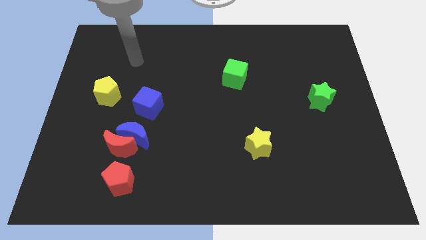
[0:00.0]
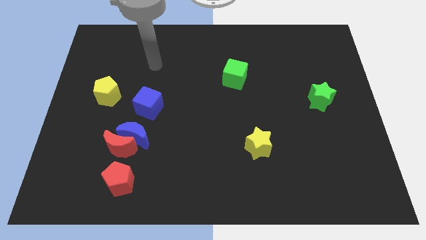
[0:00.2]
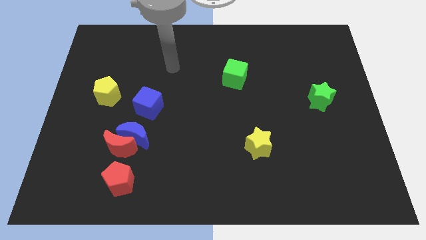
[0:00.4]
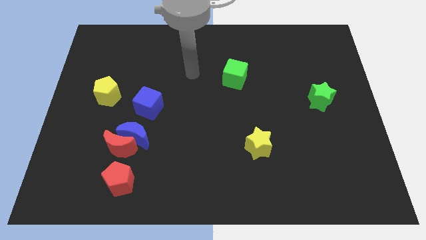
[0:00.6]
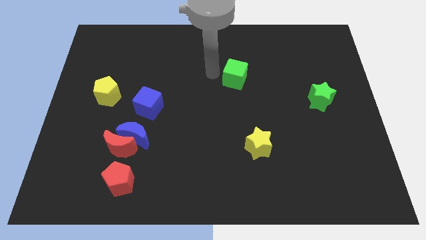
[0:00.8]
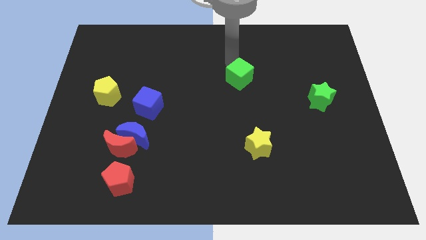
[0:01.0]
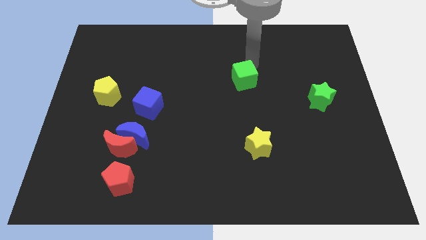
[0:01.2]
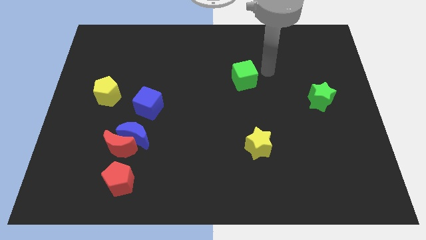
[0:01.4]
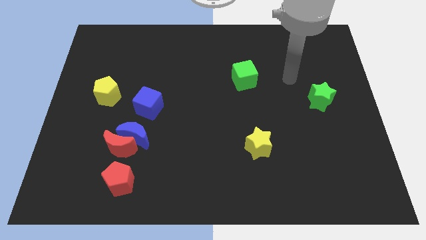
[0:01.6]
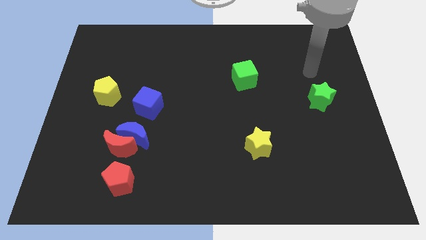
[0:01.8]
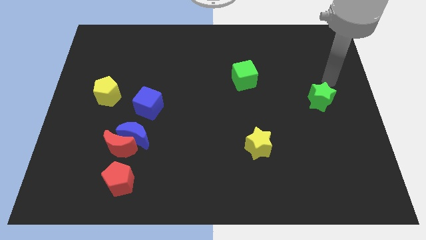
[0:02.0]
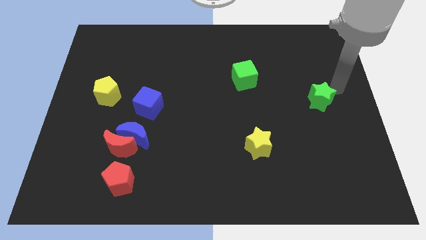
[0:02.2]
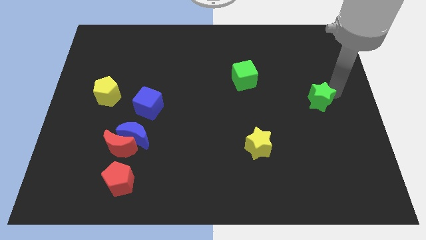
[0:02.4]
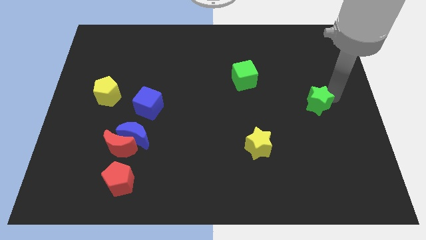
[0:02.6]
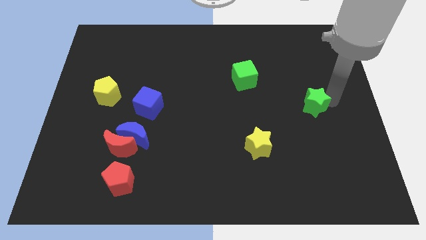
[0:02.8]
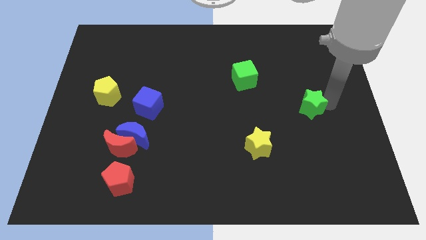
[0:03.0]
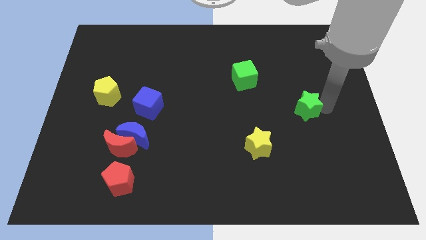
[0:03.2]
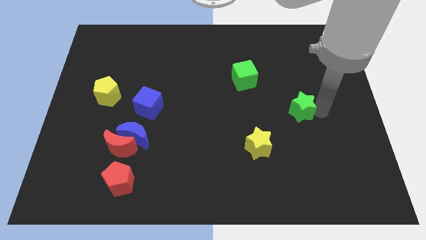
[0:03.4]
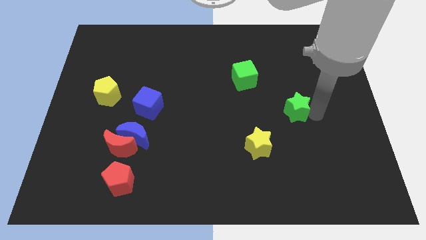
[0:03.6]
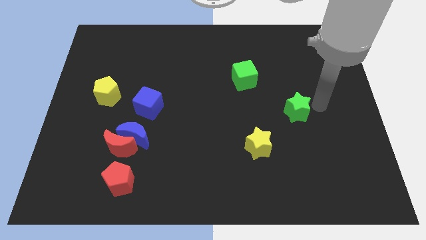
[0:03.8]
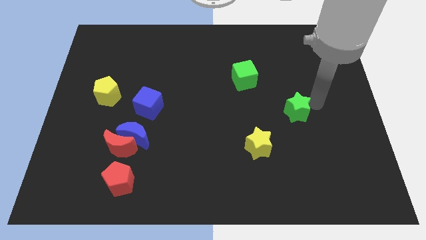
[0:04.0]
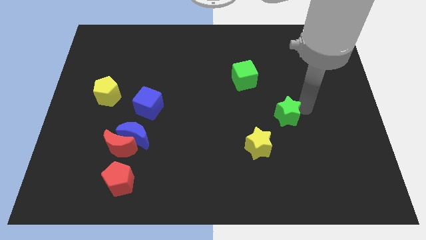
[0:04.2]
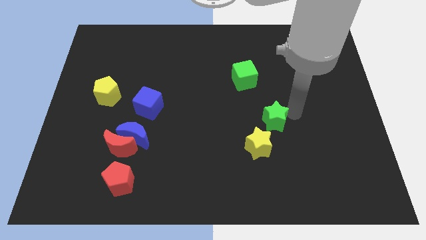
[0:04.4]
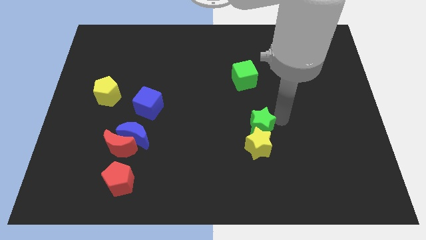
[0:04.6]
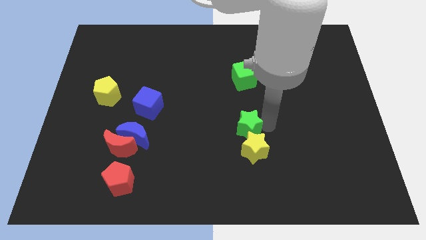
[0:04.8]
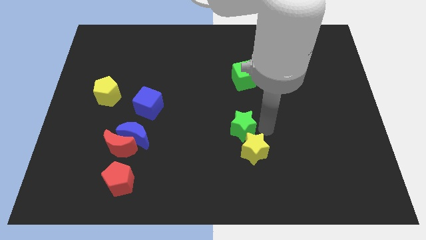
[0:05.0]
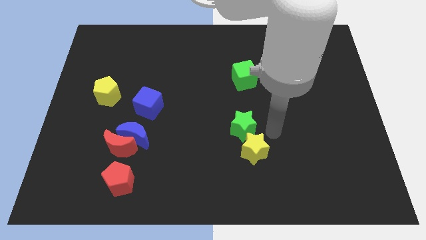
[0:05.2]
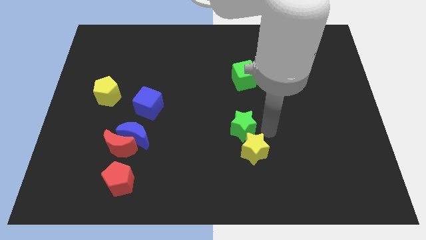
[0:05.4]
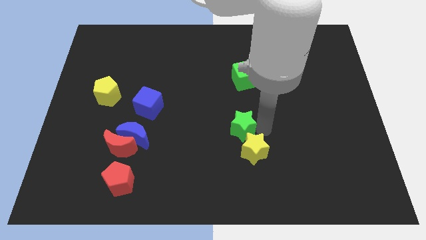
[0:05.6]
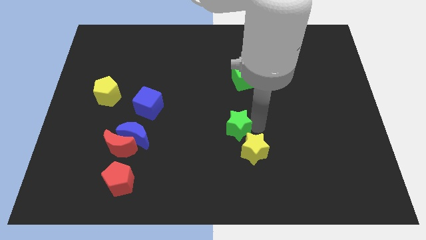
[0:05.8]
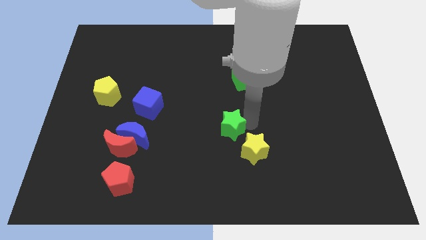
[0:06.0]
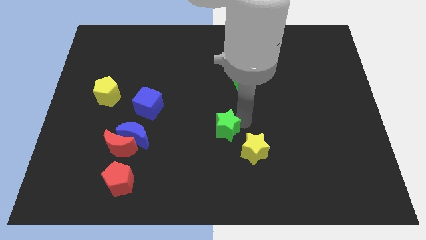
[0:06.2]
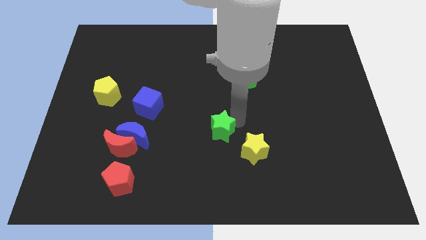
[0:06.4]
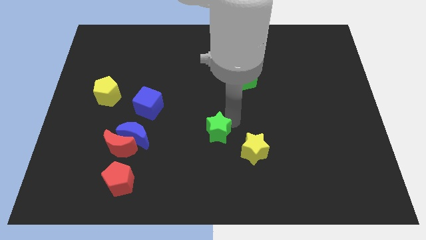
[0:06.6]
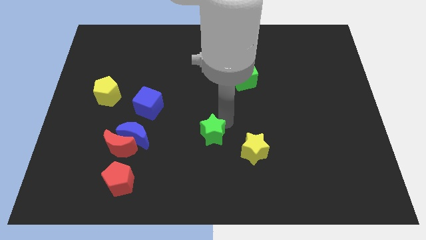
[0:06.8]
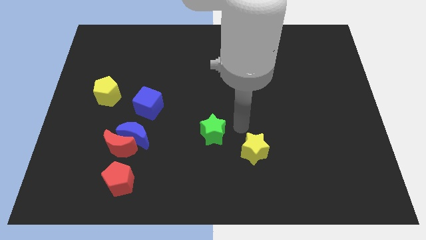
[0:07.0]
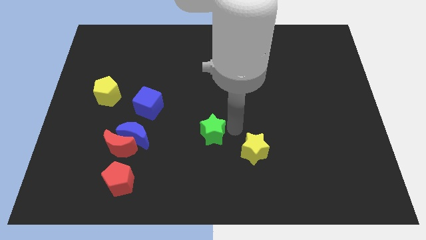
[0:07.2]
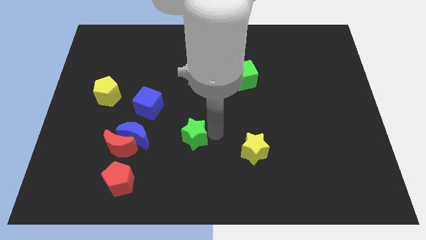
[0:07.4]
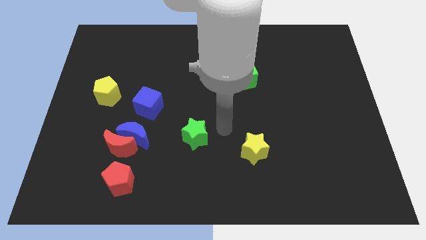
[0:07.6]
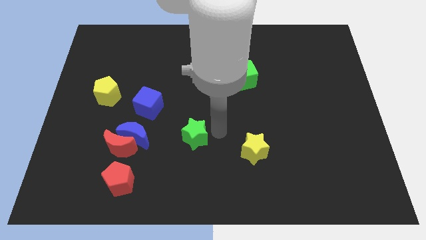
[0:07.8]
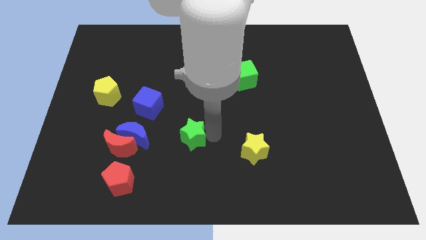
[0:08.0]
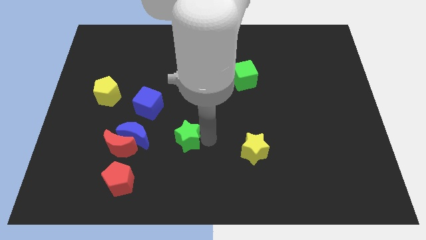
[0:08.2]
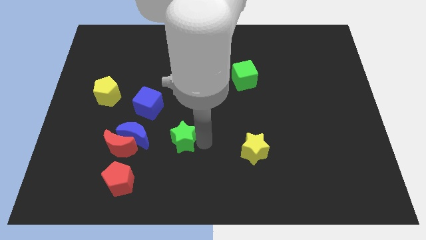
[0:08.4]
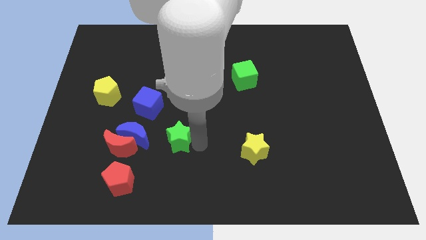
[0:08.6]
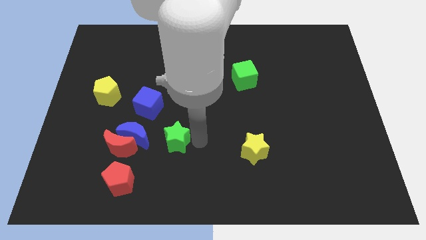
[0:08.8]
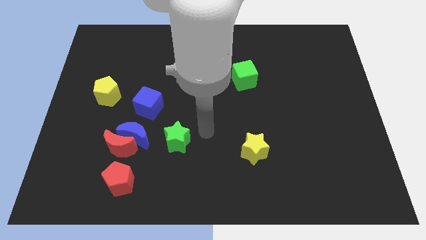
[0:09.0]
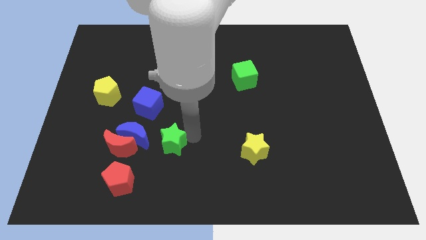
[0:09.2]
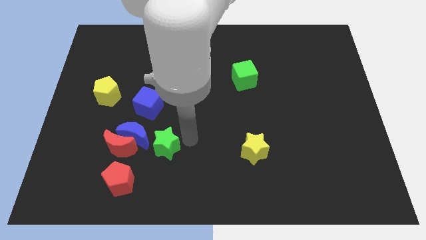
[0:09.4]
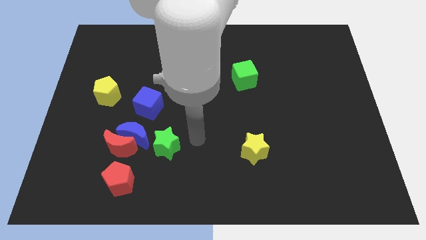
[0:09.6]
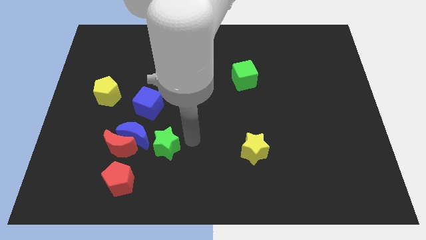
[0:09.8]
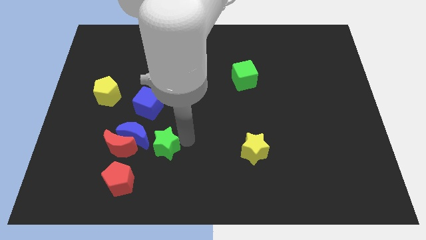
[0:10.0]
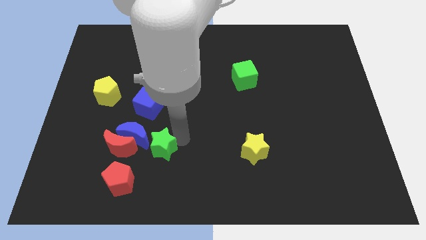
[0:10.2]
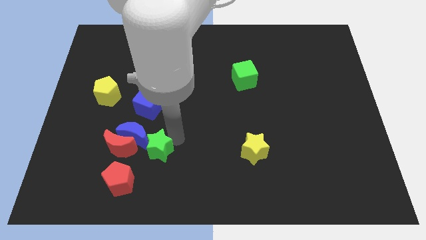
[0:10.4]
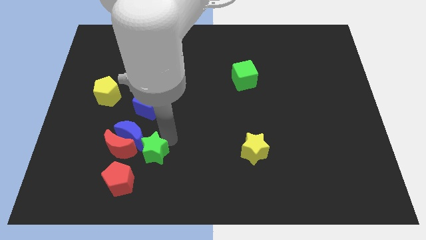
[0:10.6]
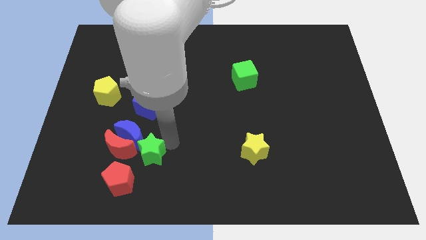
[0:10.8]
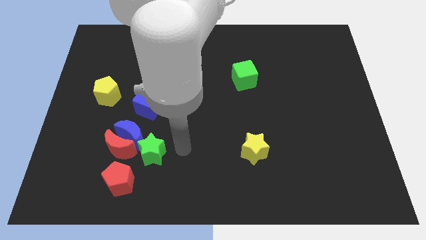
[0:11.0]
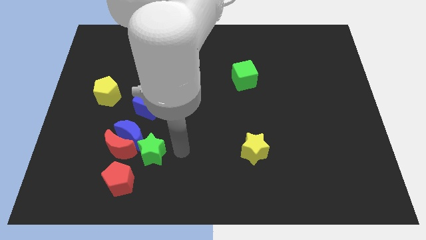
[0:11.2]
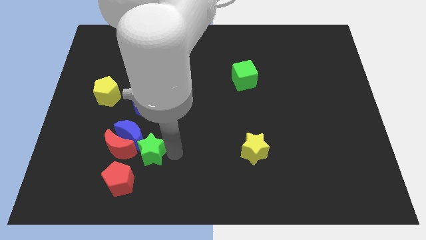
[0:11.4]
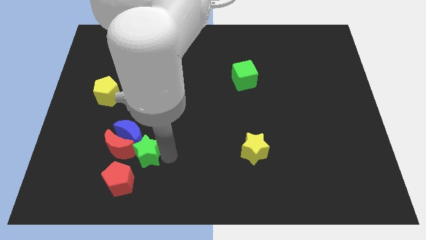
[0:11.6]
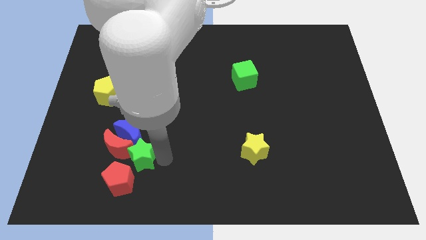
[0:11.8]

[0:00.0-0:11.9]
slide the green star close to the red moon

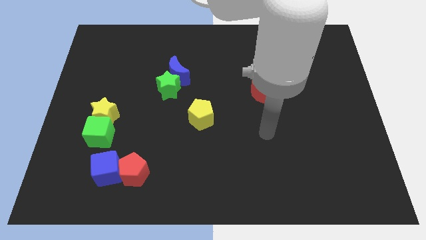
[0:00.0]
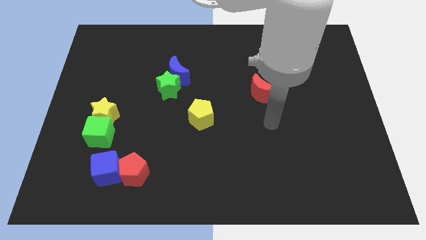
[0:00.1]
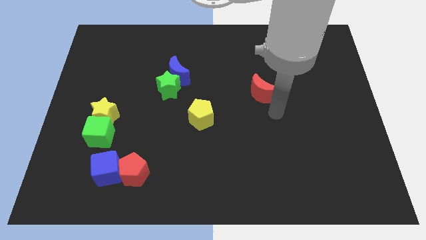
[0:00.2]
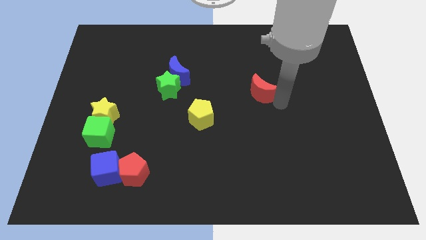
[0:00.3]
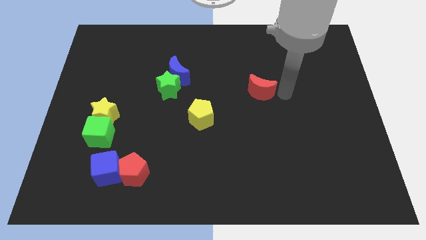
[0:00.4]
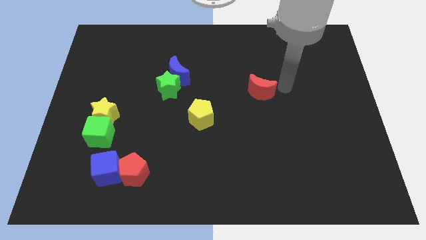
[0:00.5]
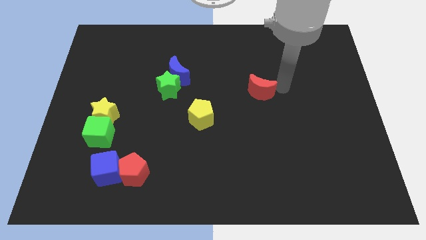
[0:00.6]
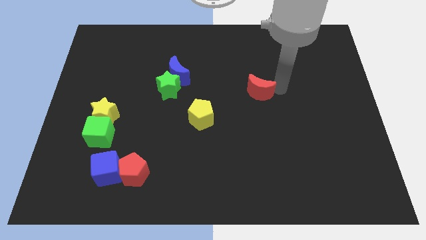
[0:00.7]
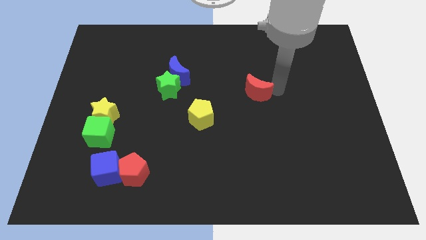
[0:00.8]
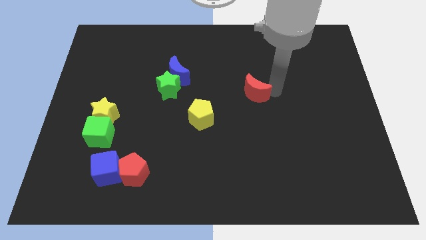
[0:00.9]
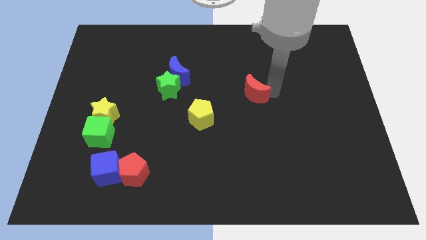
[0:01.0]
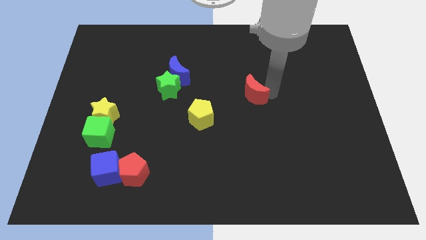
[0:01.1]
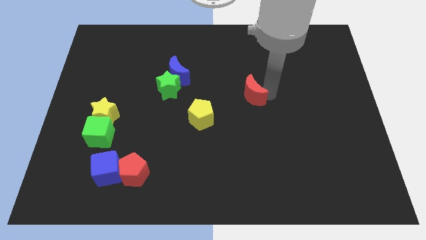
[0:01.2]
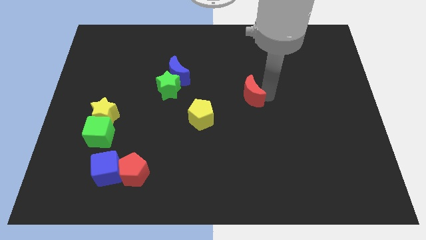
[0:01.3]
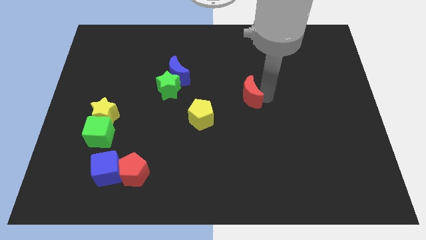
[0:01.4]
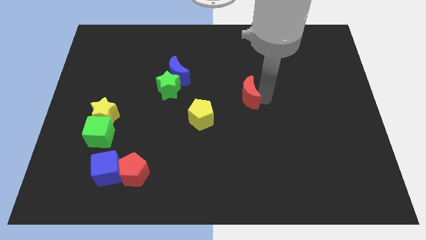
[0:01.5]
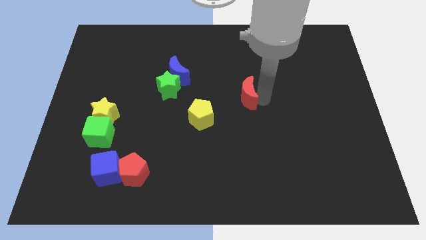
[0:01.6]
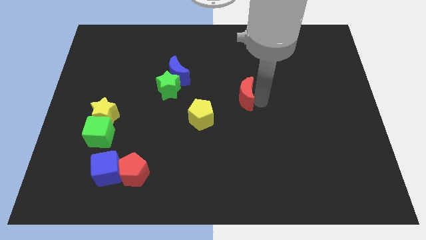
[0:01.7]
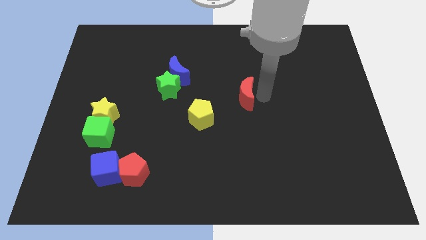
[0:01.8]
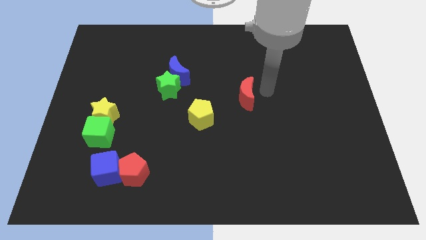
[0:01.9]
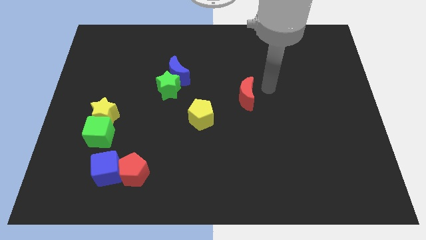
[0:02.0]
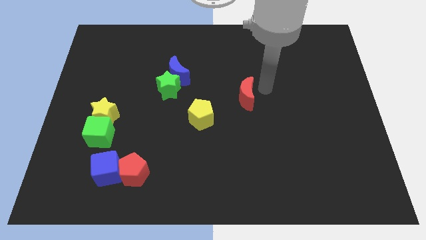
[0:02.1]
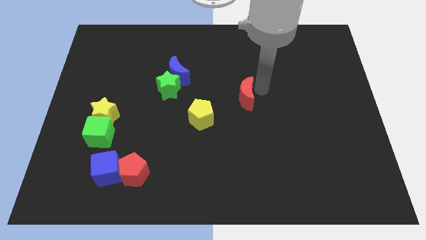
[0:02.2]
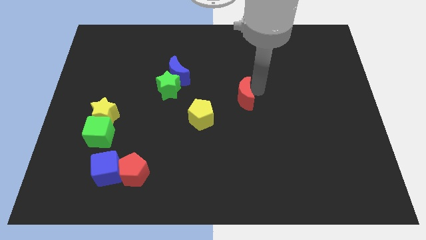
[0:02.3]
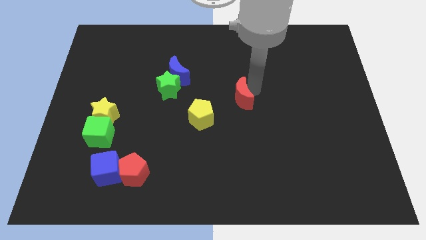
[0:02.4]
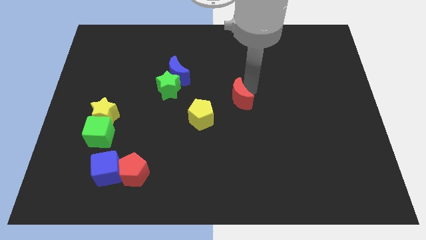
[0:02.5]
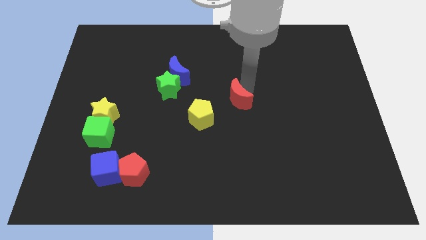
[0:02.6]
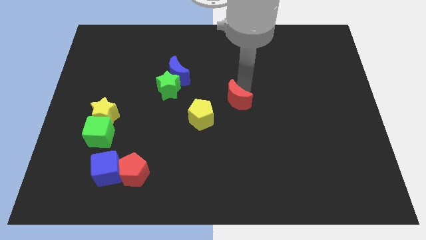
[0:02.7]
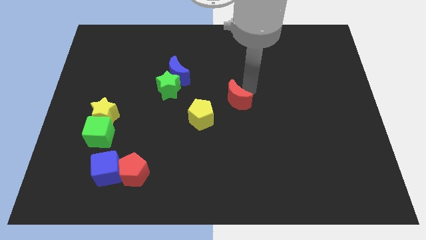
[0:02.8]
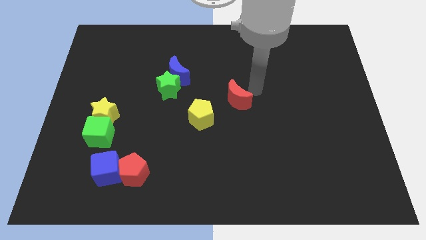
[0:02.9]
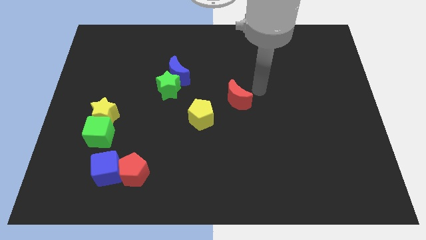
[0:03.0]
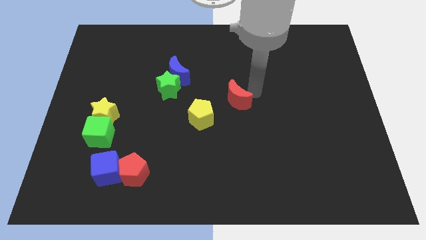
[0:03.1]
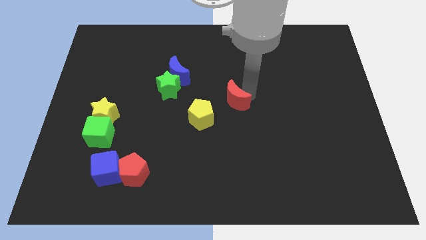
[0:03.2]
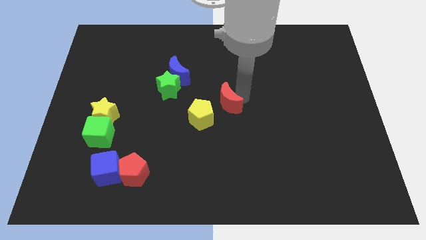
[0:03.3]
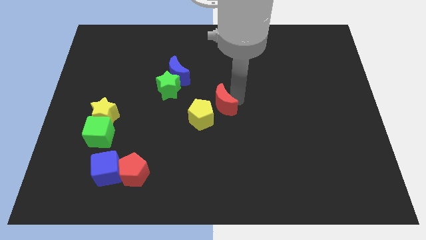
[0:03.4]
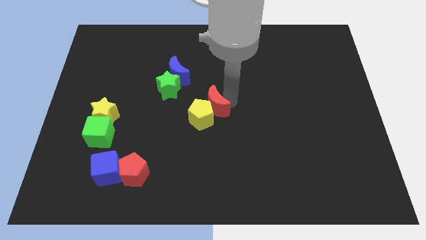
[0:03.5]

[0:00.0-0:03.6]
slide the red moon close to the yellow pentagon
